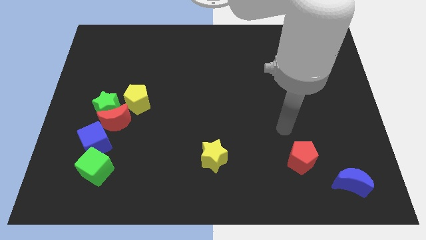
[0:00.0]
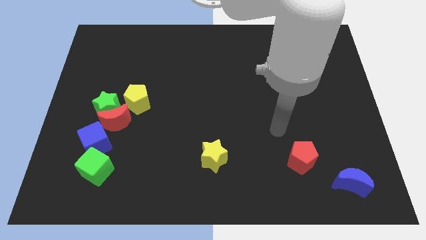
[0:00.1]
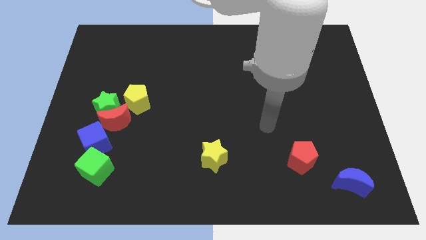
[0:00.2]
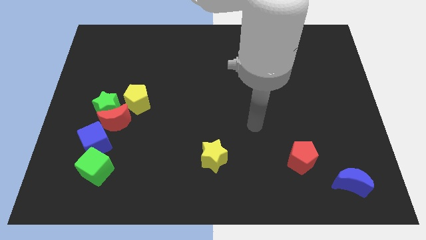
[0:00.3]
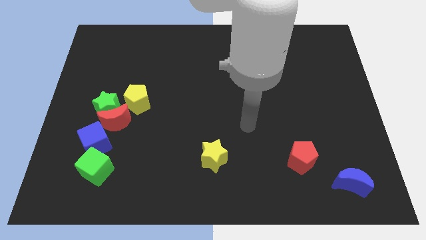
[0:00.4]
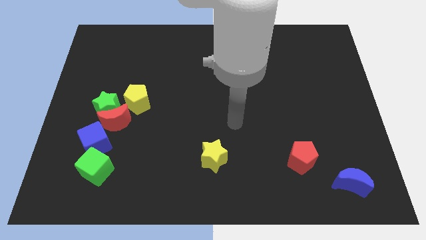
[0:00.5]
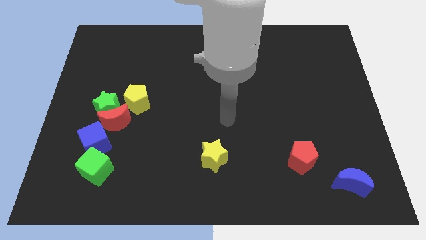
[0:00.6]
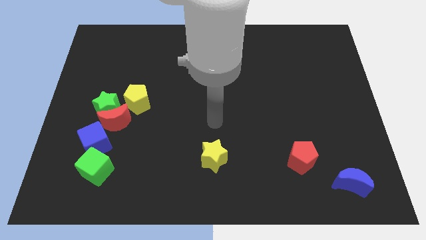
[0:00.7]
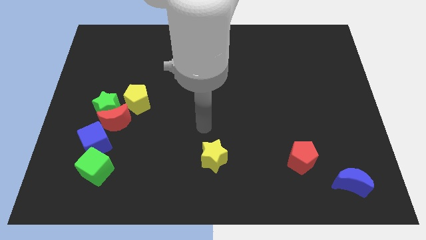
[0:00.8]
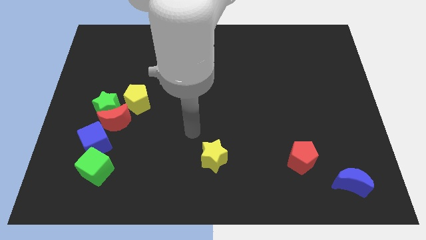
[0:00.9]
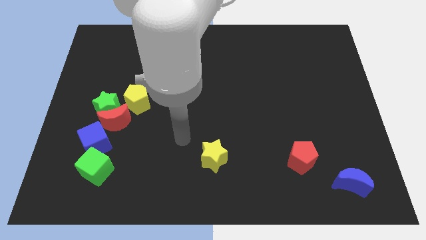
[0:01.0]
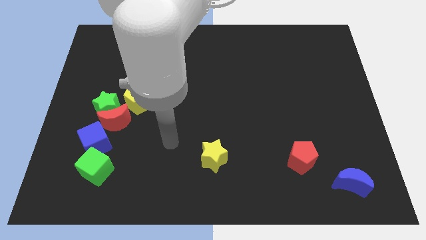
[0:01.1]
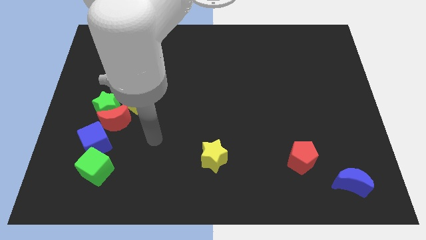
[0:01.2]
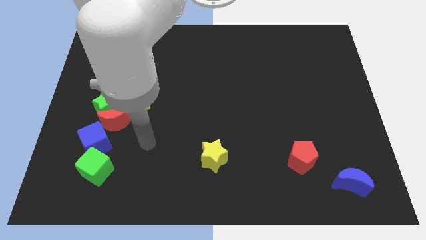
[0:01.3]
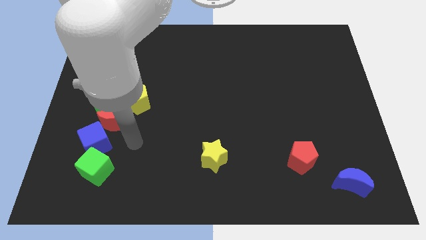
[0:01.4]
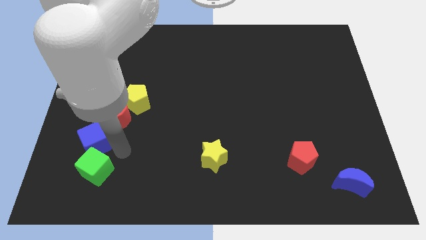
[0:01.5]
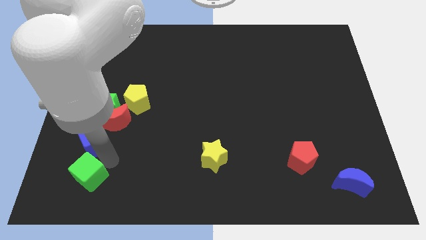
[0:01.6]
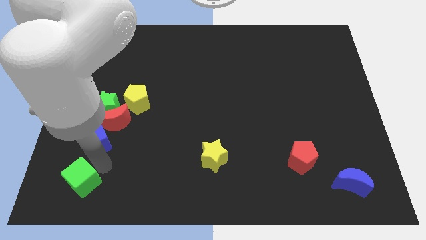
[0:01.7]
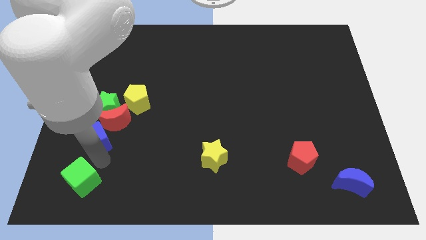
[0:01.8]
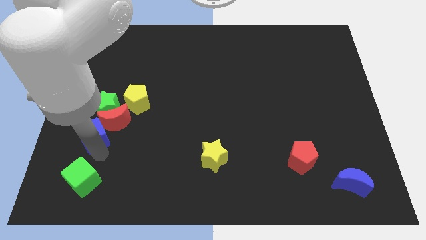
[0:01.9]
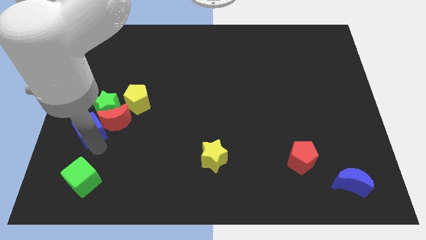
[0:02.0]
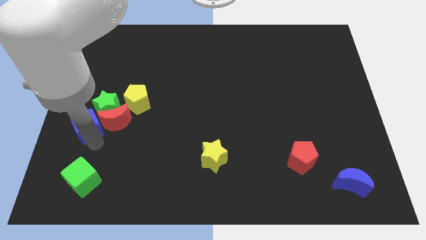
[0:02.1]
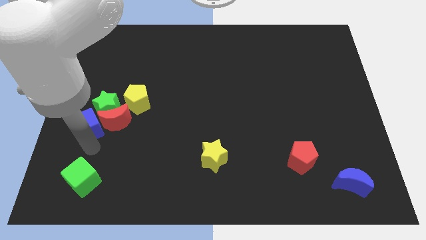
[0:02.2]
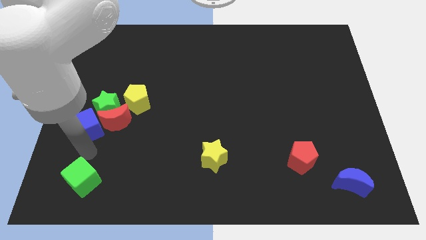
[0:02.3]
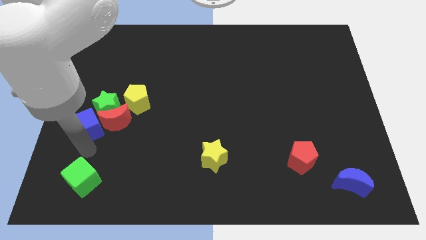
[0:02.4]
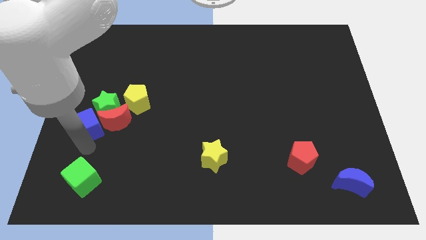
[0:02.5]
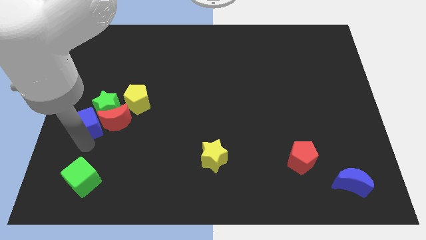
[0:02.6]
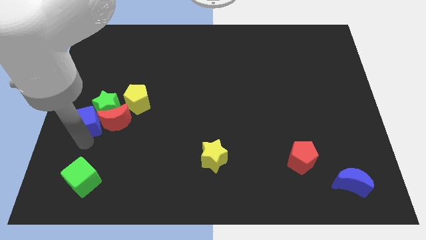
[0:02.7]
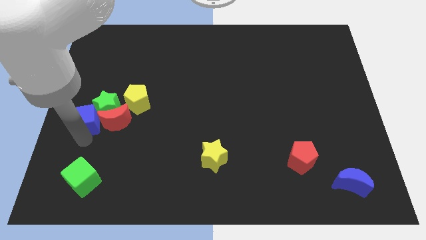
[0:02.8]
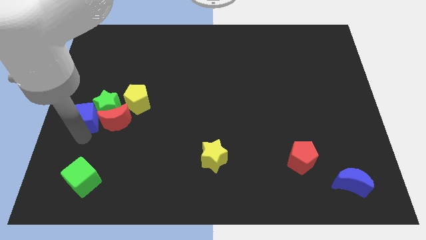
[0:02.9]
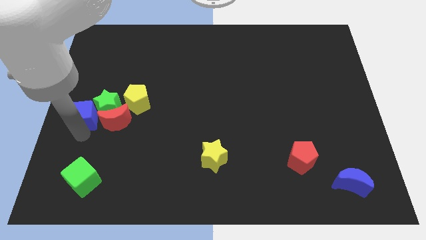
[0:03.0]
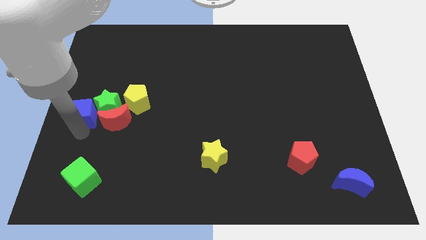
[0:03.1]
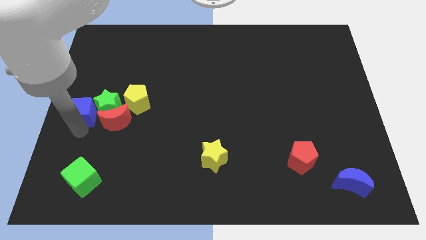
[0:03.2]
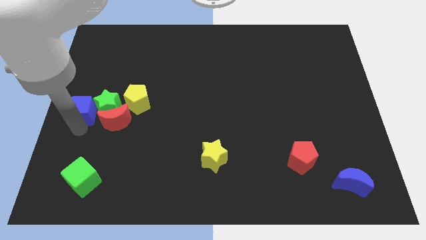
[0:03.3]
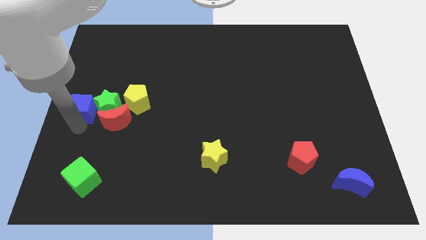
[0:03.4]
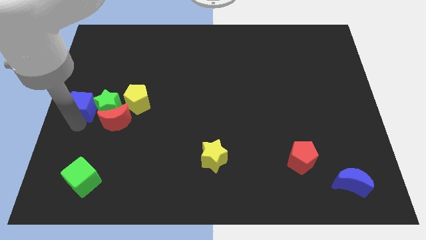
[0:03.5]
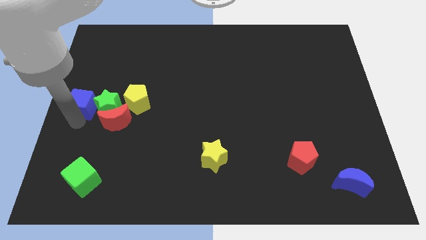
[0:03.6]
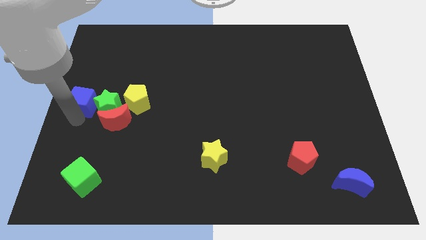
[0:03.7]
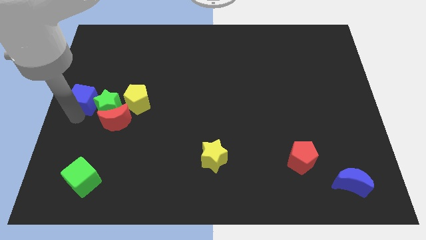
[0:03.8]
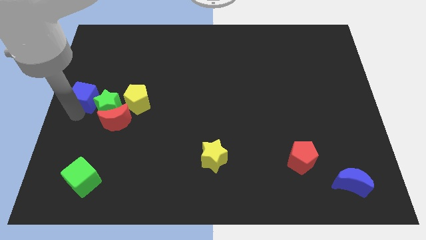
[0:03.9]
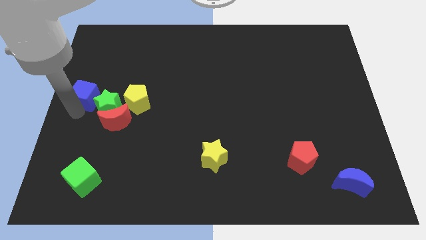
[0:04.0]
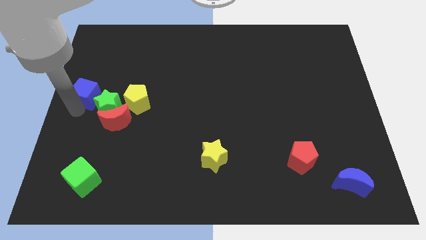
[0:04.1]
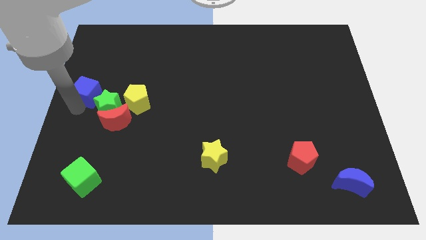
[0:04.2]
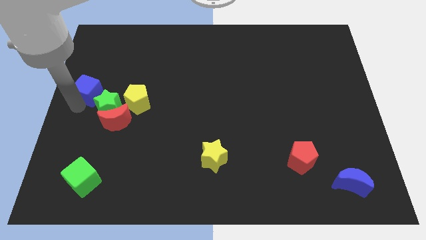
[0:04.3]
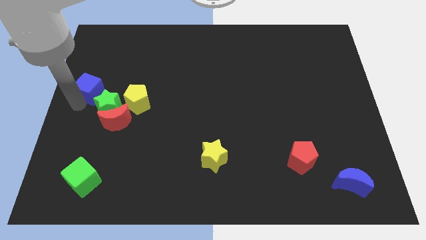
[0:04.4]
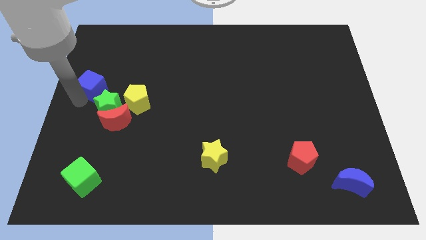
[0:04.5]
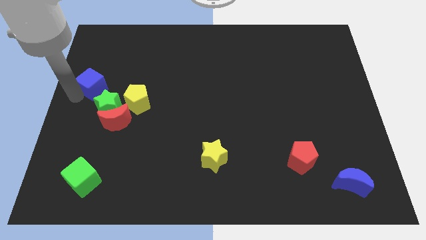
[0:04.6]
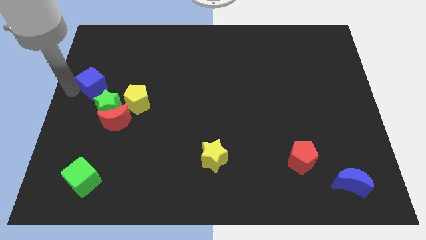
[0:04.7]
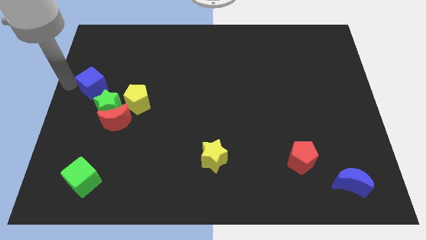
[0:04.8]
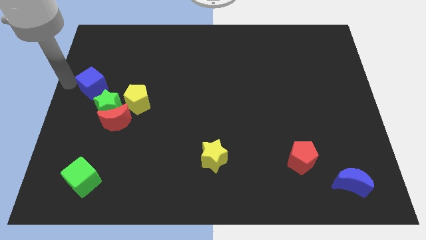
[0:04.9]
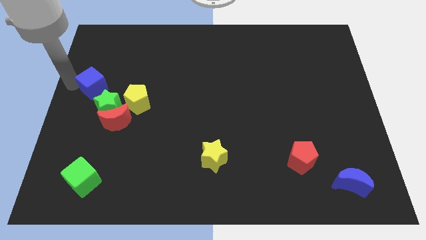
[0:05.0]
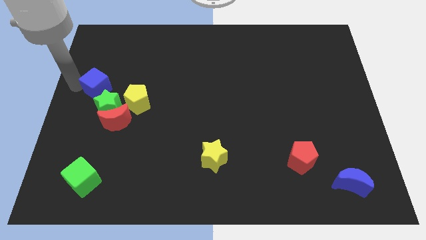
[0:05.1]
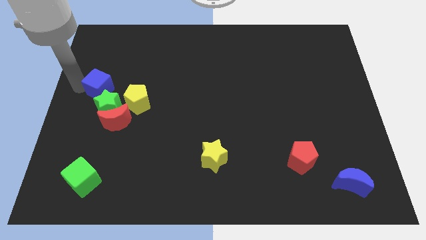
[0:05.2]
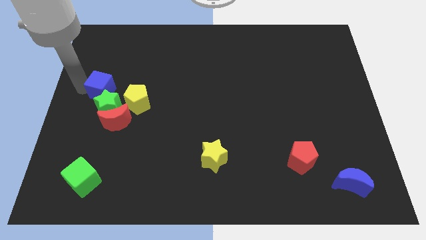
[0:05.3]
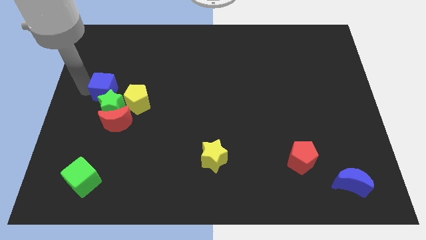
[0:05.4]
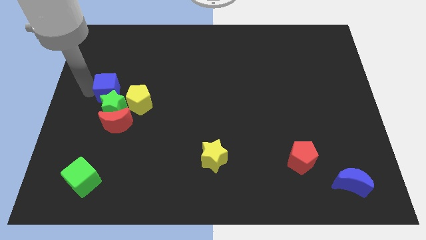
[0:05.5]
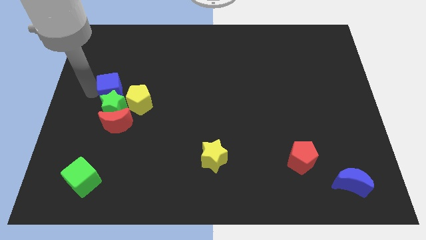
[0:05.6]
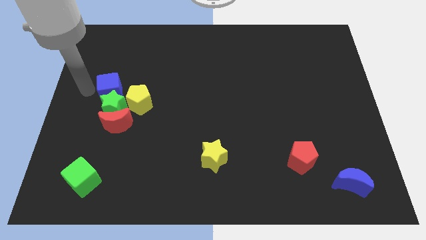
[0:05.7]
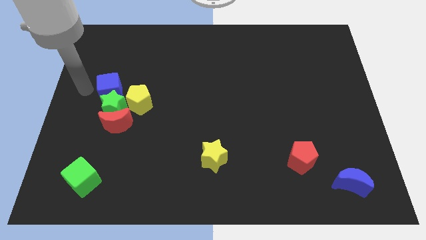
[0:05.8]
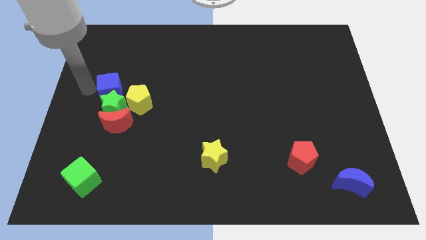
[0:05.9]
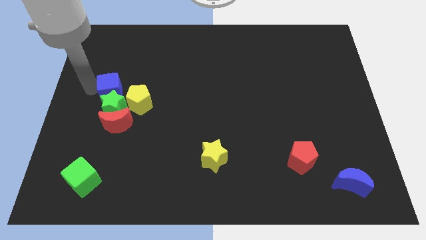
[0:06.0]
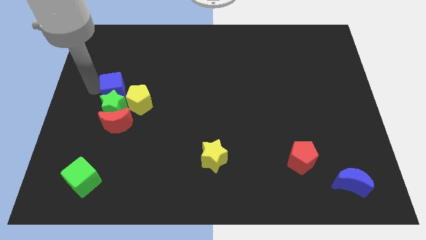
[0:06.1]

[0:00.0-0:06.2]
slide the blue cube to the top right side of the green star
